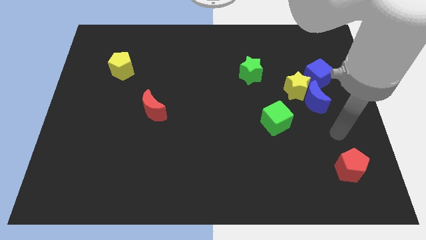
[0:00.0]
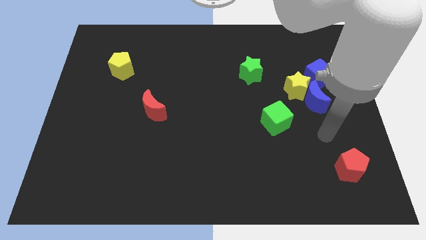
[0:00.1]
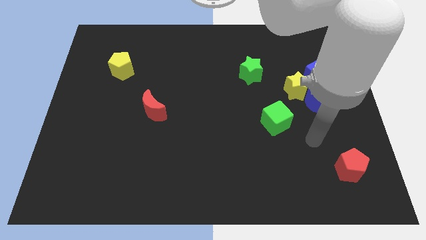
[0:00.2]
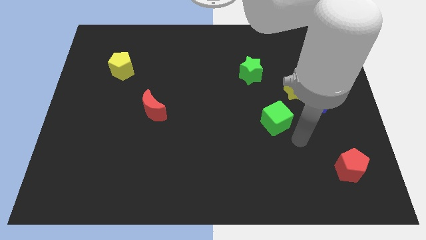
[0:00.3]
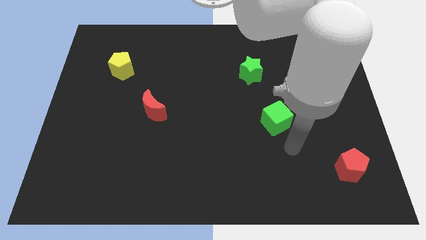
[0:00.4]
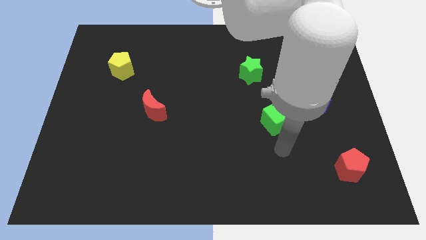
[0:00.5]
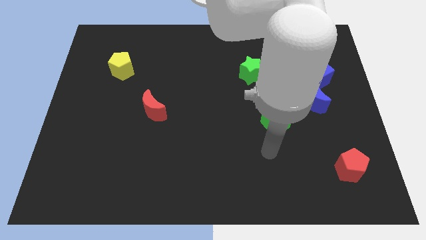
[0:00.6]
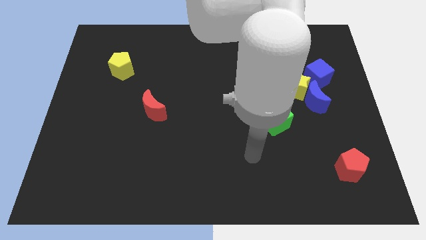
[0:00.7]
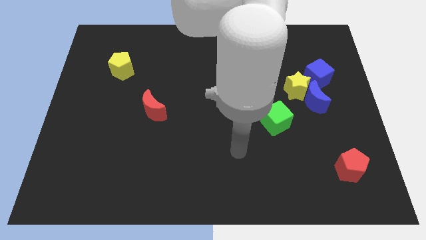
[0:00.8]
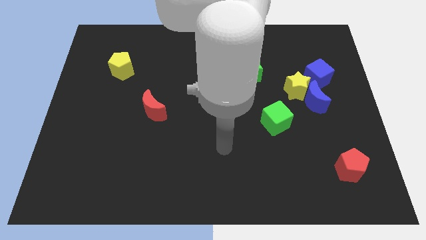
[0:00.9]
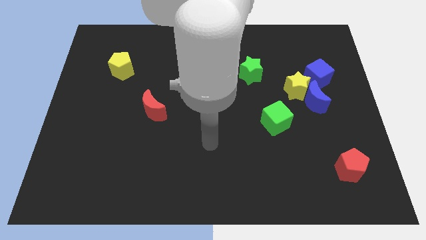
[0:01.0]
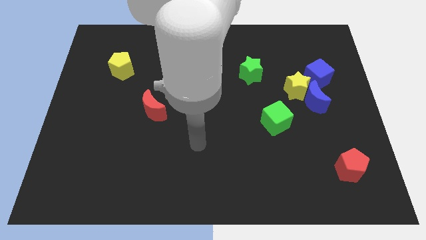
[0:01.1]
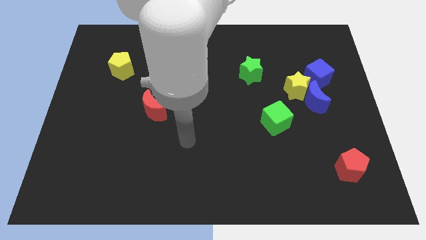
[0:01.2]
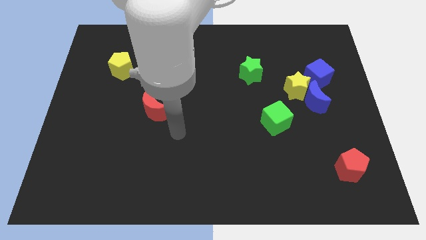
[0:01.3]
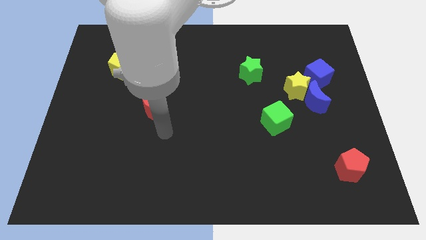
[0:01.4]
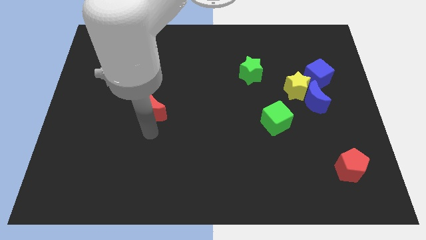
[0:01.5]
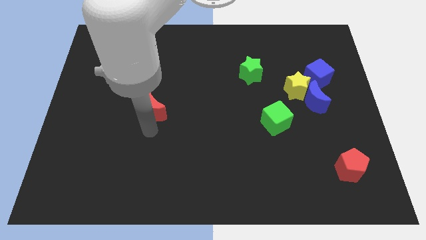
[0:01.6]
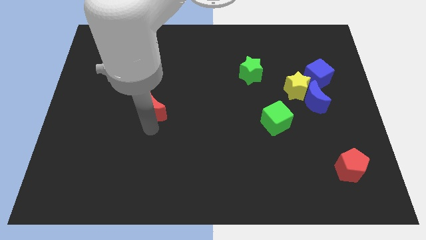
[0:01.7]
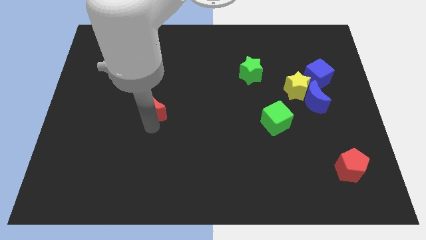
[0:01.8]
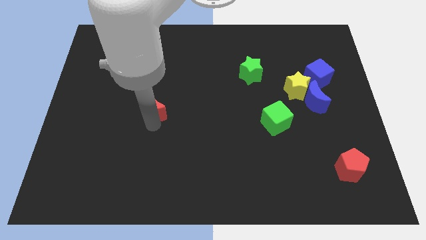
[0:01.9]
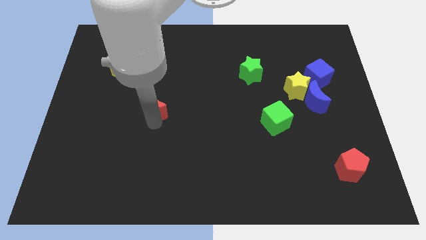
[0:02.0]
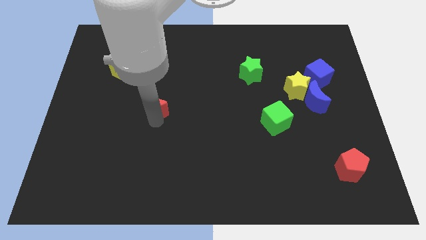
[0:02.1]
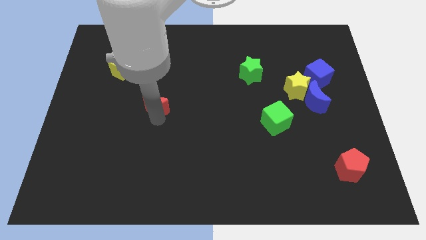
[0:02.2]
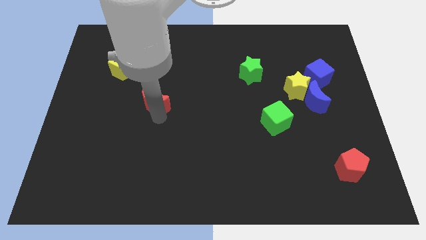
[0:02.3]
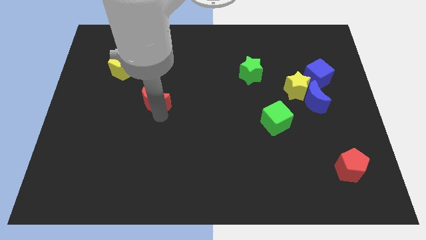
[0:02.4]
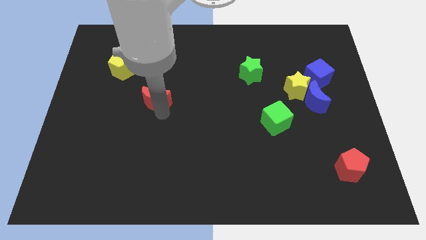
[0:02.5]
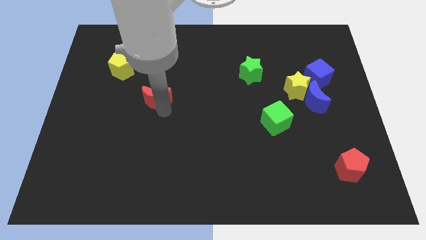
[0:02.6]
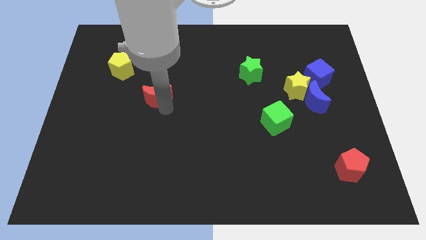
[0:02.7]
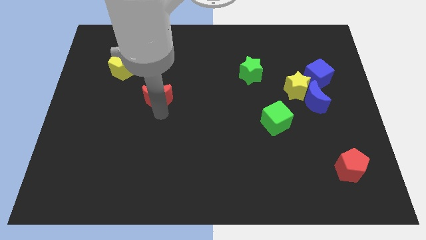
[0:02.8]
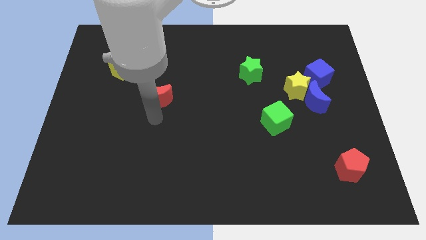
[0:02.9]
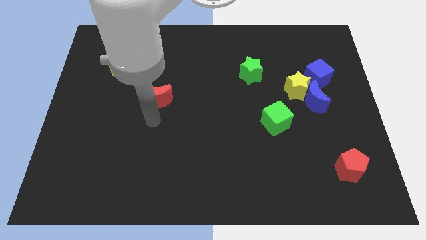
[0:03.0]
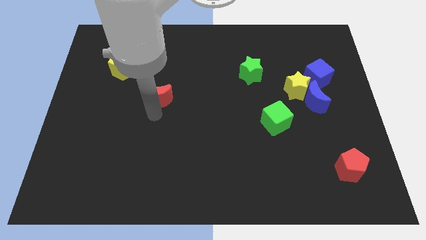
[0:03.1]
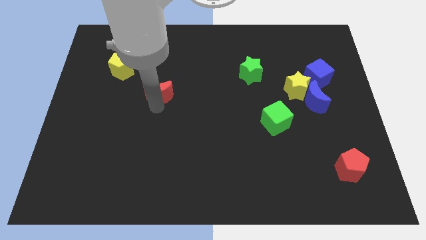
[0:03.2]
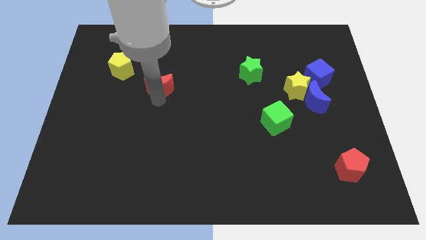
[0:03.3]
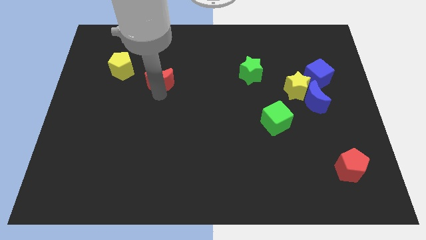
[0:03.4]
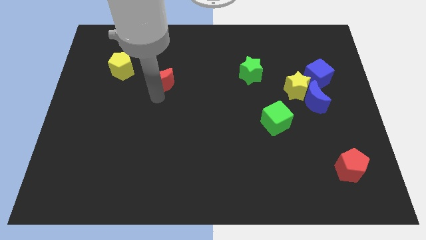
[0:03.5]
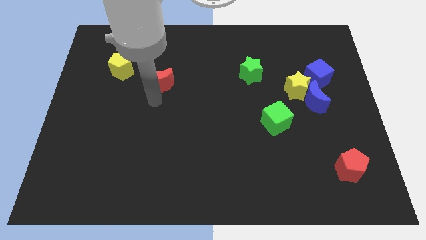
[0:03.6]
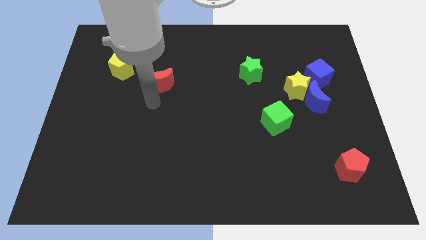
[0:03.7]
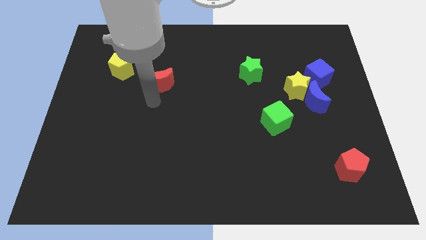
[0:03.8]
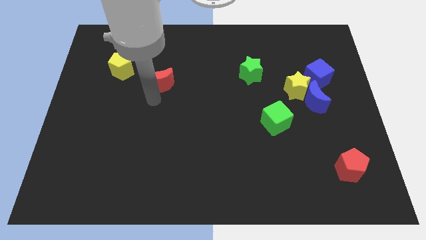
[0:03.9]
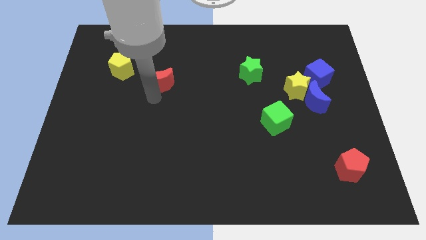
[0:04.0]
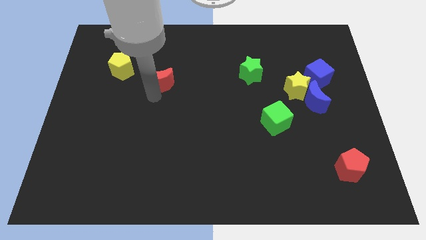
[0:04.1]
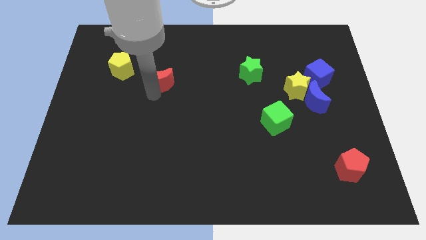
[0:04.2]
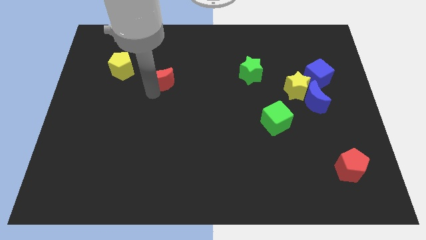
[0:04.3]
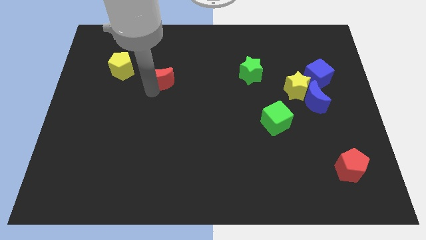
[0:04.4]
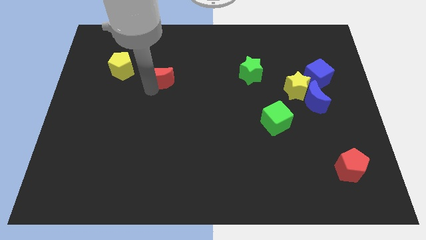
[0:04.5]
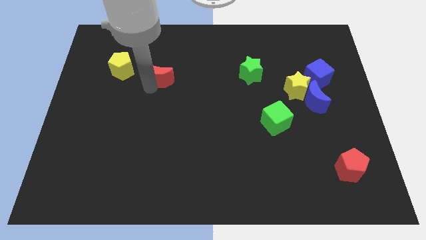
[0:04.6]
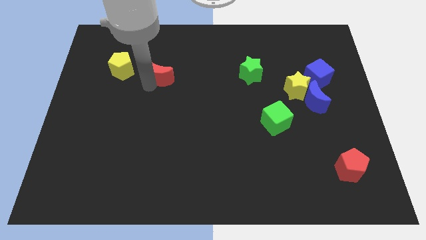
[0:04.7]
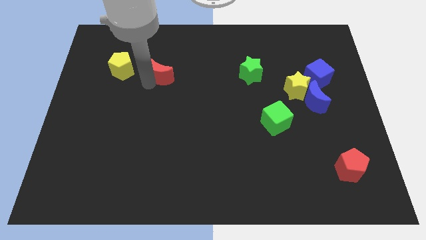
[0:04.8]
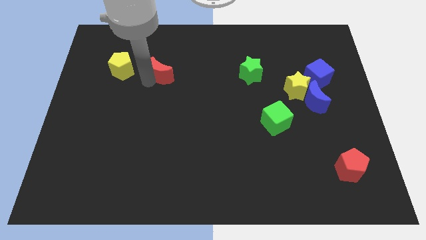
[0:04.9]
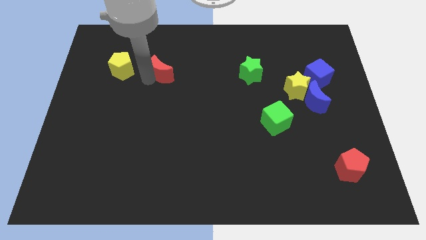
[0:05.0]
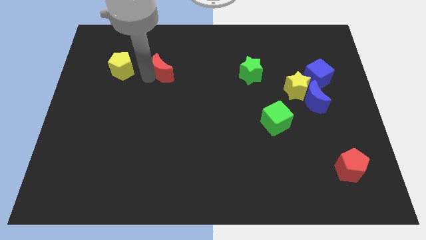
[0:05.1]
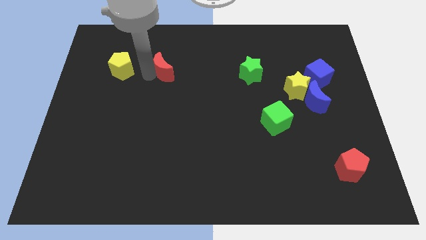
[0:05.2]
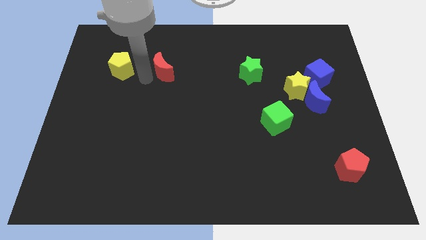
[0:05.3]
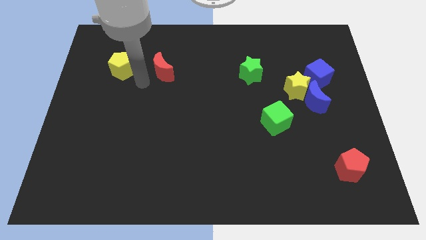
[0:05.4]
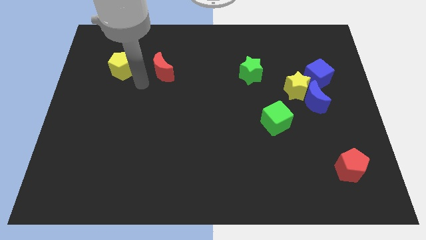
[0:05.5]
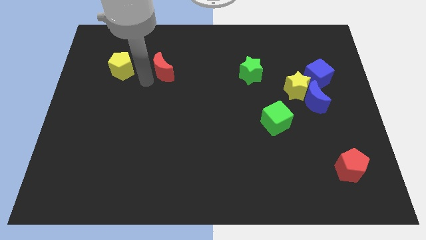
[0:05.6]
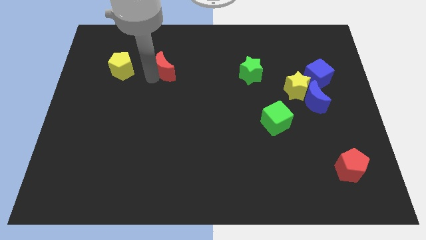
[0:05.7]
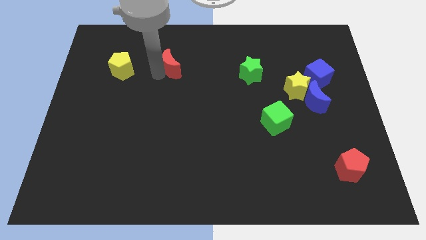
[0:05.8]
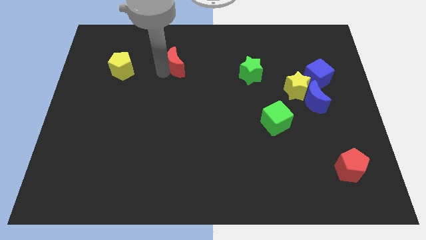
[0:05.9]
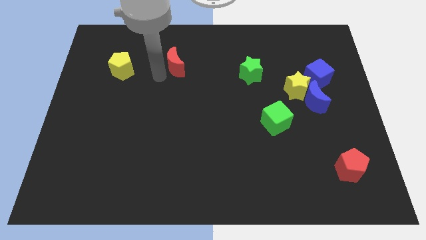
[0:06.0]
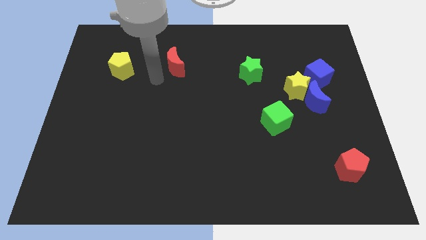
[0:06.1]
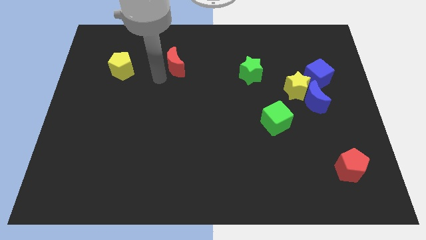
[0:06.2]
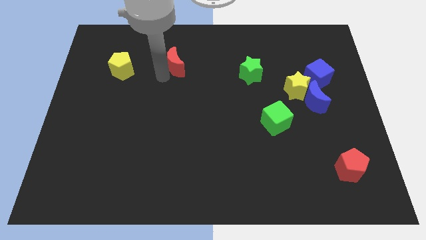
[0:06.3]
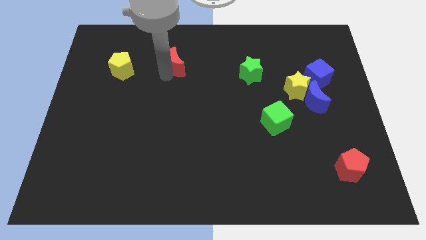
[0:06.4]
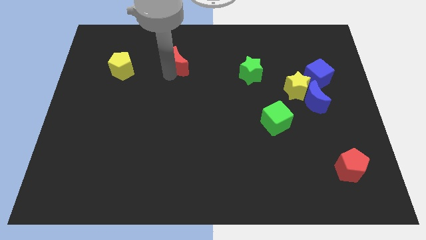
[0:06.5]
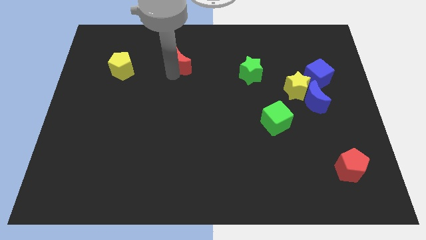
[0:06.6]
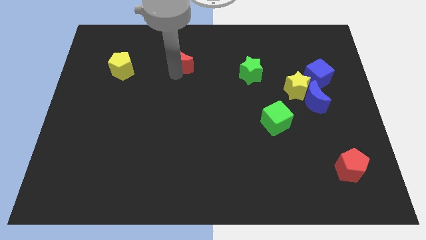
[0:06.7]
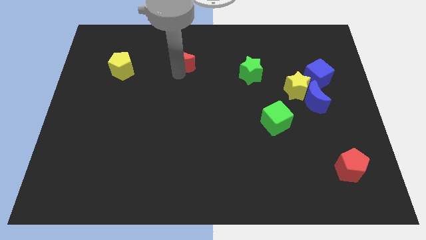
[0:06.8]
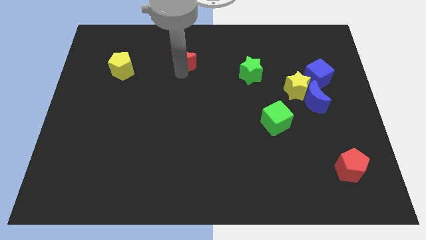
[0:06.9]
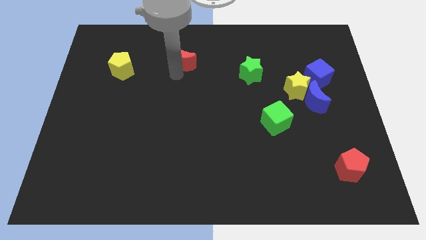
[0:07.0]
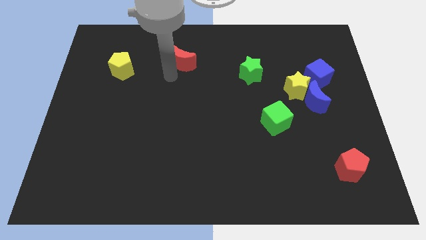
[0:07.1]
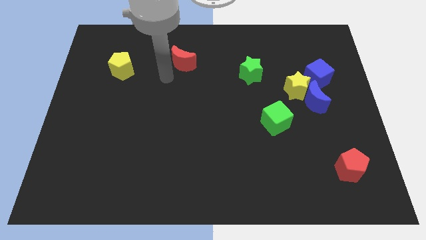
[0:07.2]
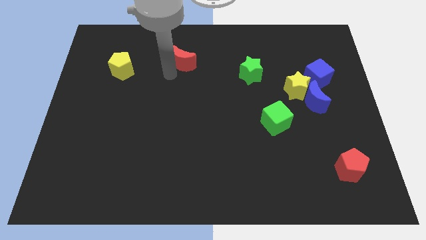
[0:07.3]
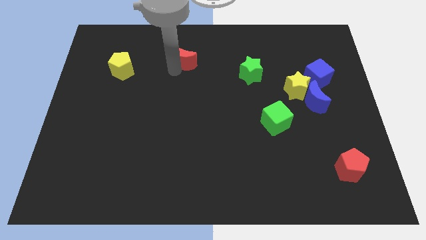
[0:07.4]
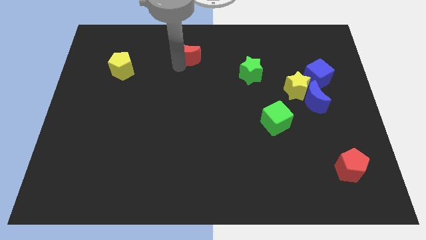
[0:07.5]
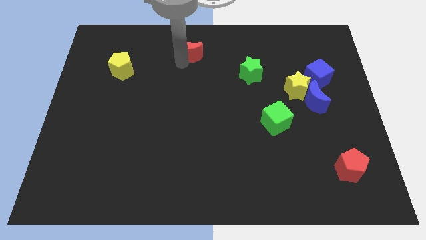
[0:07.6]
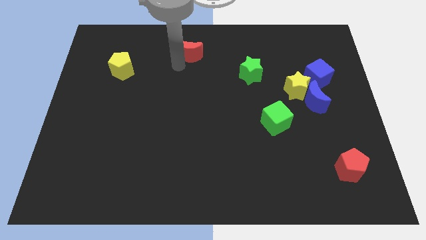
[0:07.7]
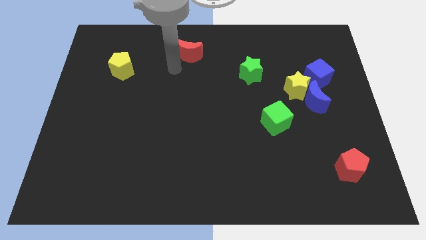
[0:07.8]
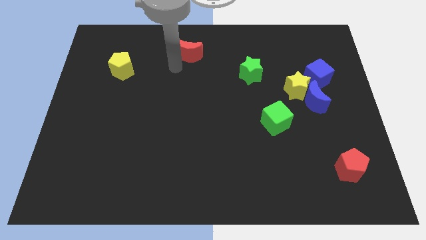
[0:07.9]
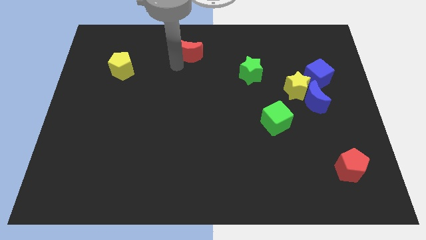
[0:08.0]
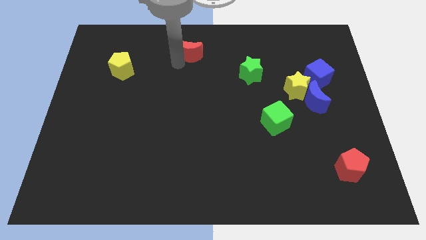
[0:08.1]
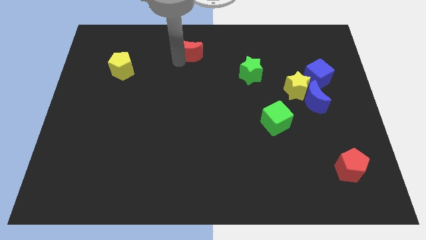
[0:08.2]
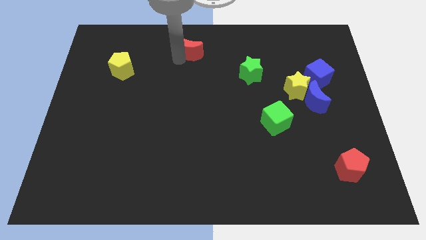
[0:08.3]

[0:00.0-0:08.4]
move the red moon to the top
